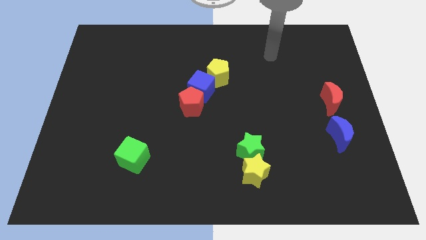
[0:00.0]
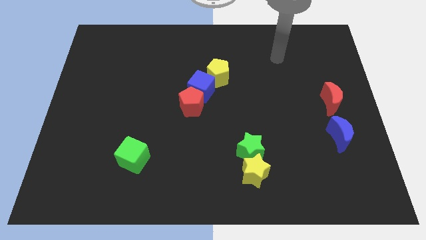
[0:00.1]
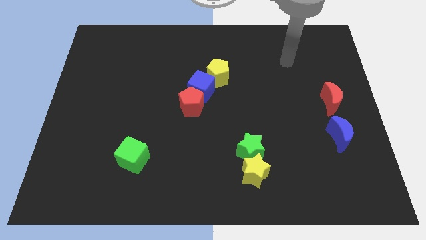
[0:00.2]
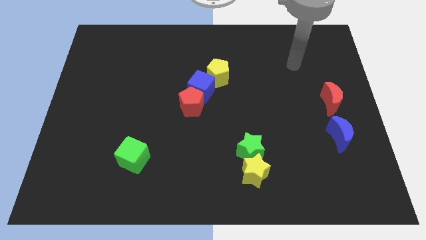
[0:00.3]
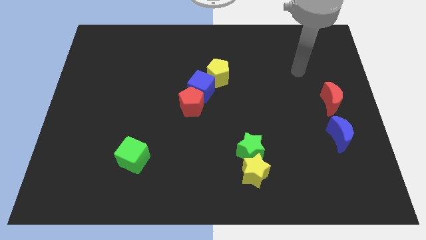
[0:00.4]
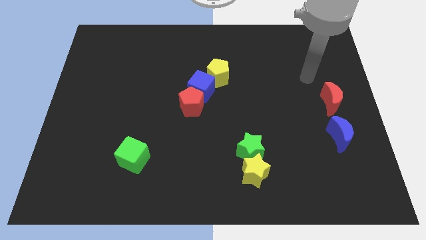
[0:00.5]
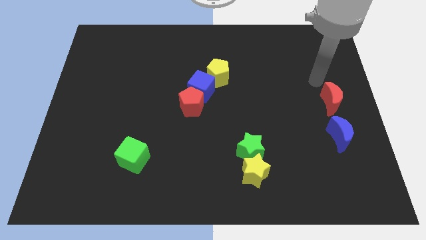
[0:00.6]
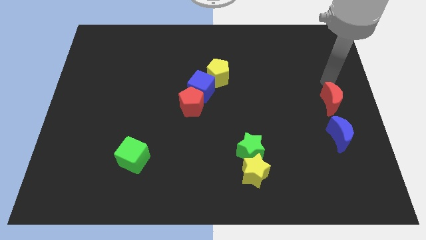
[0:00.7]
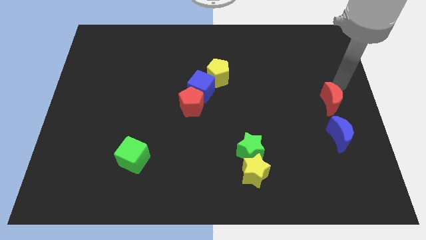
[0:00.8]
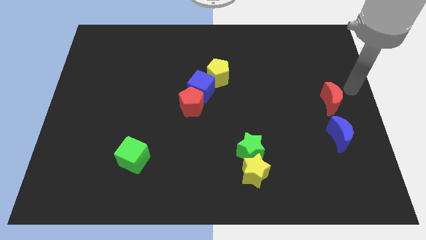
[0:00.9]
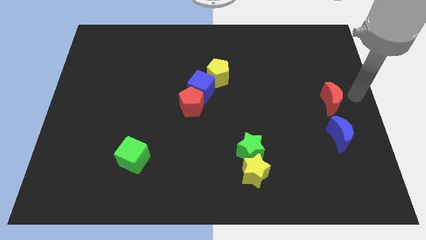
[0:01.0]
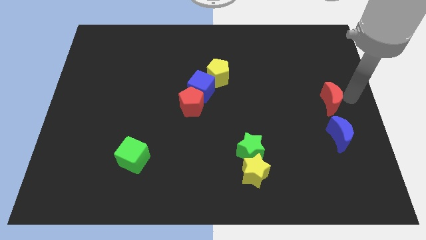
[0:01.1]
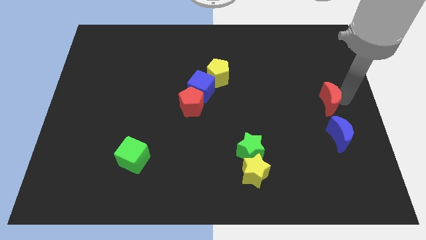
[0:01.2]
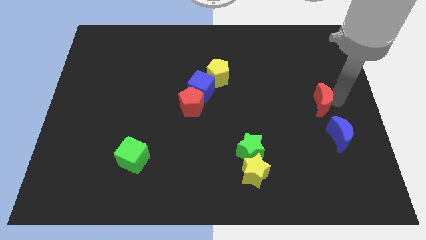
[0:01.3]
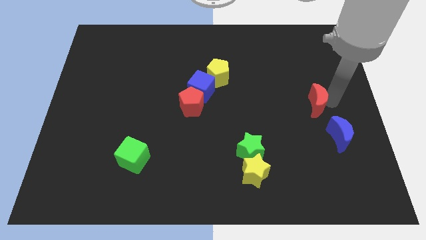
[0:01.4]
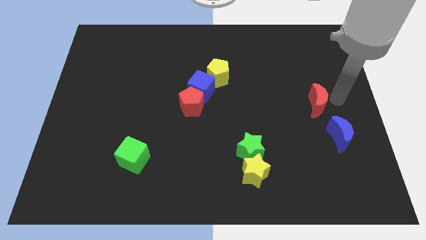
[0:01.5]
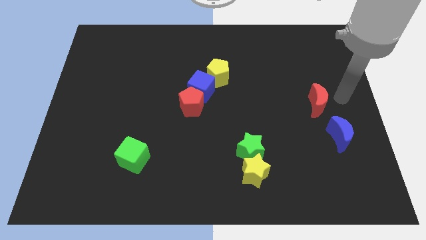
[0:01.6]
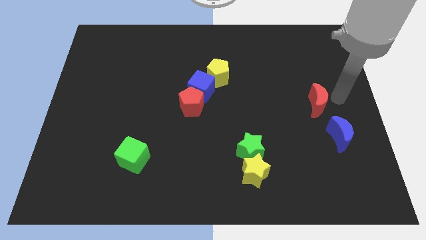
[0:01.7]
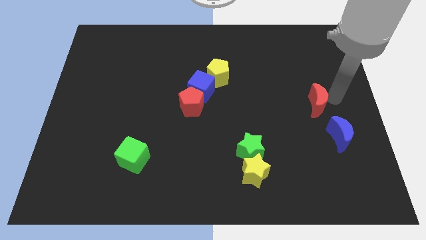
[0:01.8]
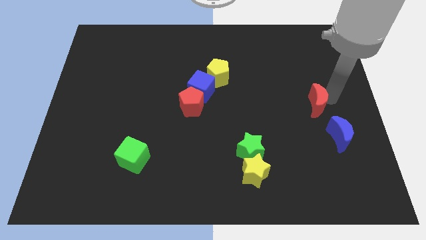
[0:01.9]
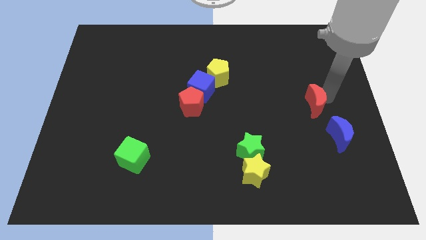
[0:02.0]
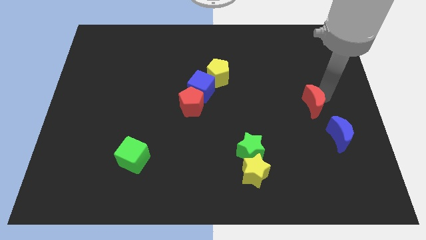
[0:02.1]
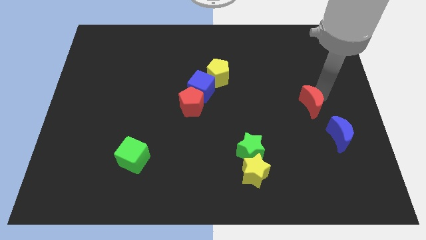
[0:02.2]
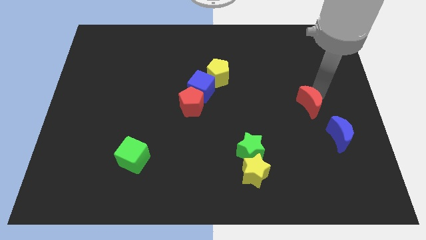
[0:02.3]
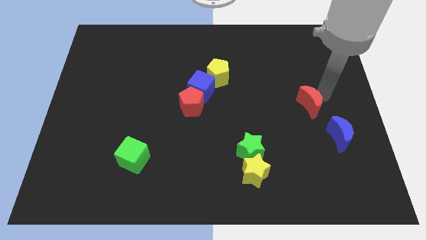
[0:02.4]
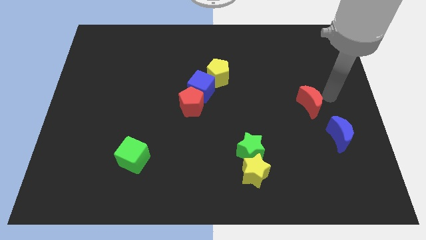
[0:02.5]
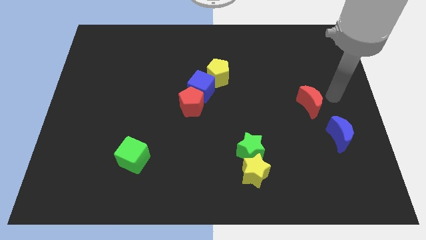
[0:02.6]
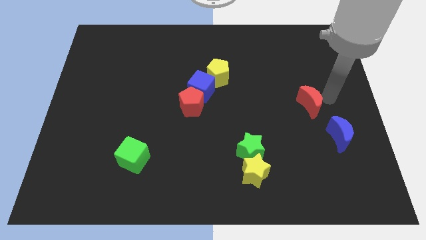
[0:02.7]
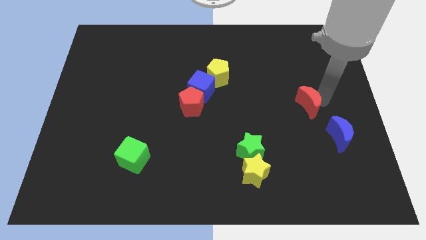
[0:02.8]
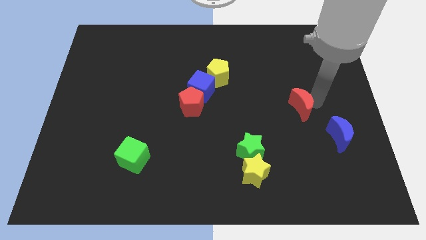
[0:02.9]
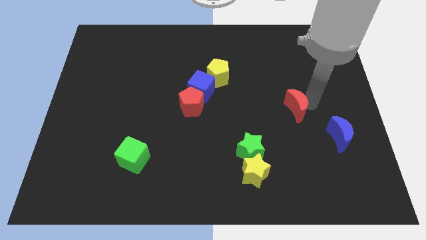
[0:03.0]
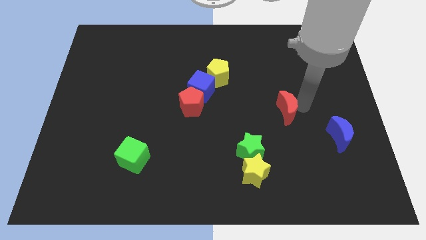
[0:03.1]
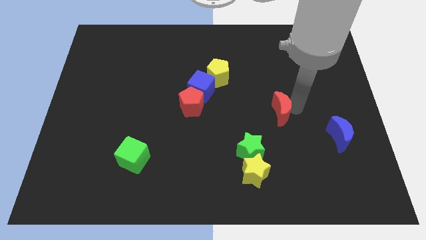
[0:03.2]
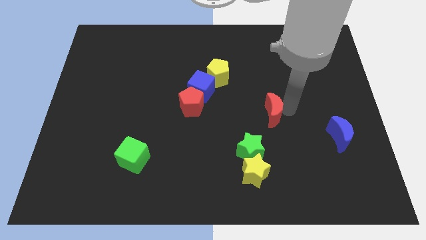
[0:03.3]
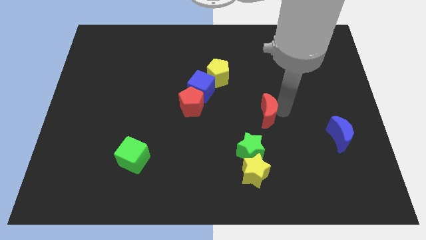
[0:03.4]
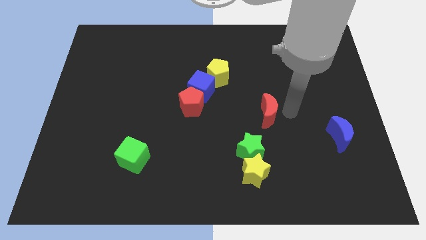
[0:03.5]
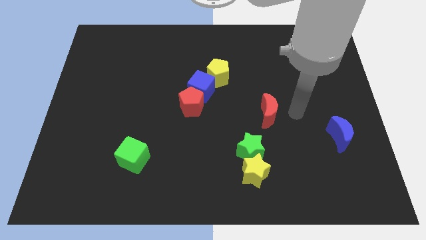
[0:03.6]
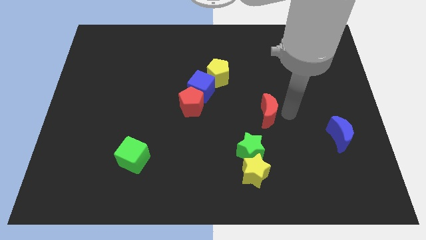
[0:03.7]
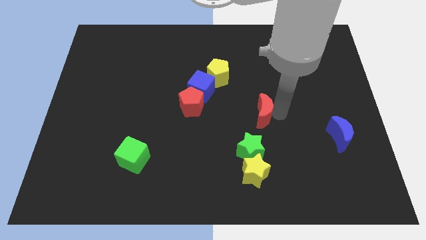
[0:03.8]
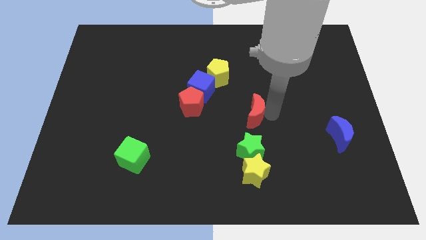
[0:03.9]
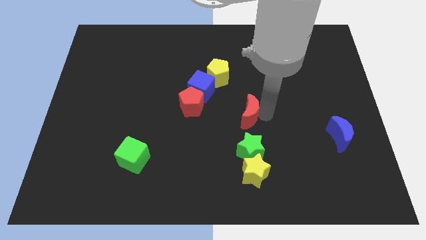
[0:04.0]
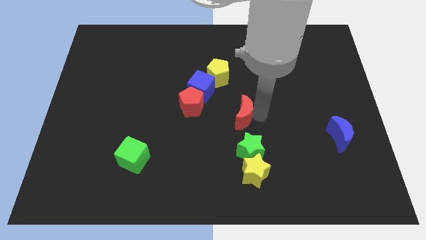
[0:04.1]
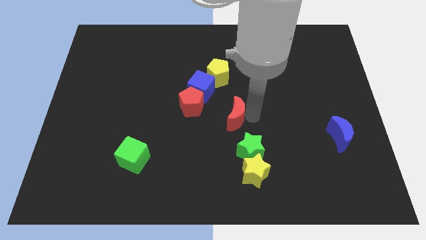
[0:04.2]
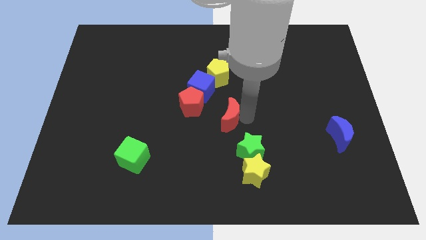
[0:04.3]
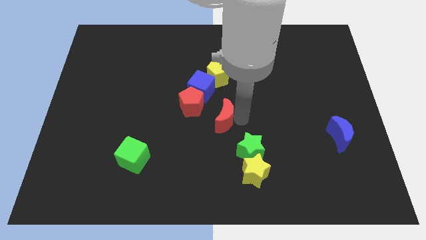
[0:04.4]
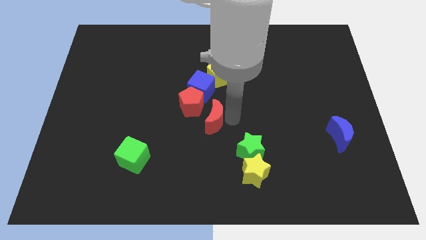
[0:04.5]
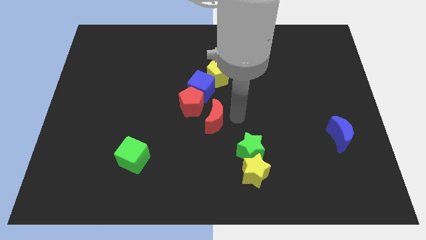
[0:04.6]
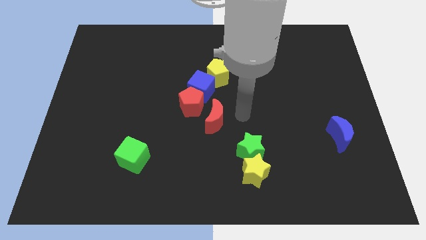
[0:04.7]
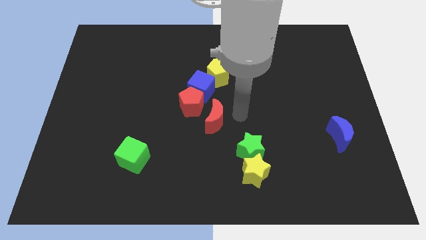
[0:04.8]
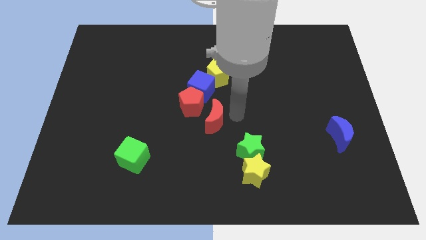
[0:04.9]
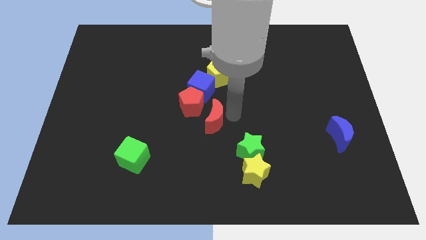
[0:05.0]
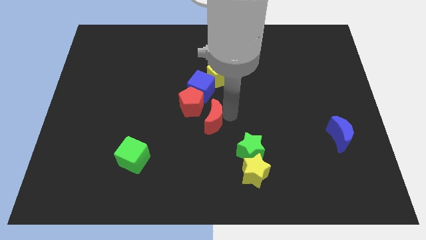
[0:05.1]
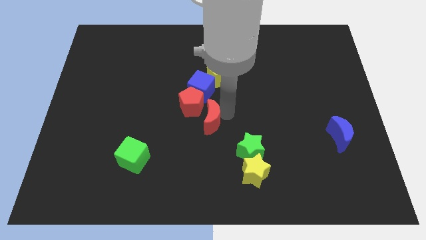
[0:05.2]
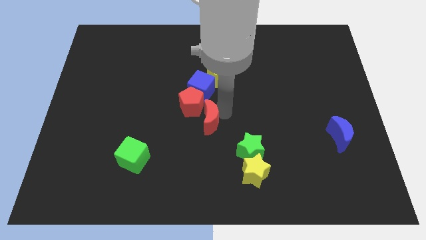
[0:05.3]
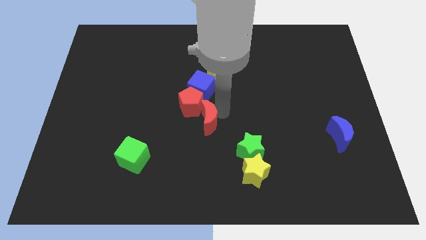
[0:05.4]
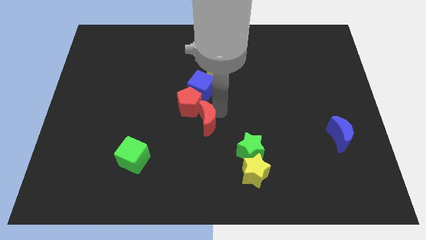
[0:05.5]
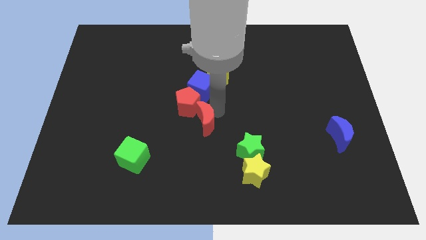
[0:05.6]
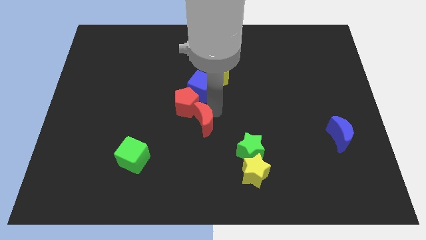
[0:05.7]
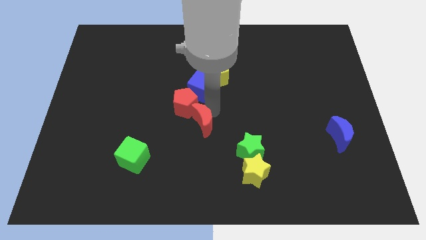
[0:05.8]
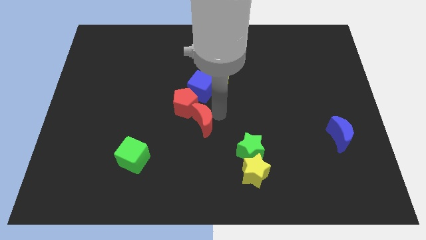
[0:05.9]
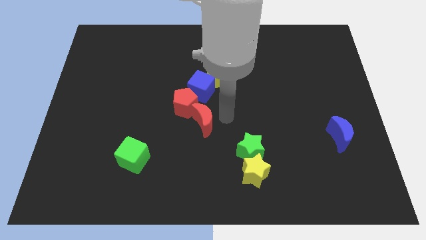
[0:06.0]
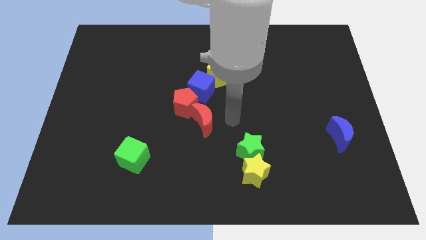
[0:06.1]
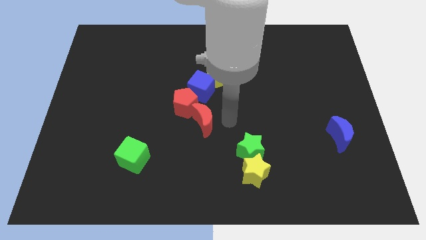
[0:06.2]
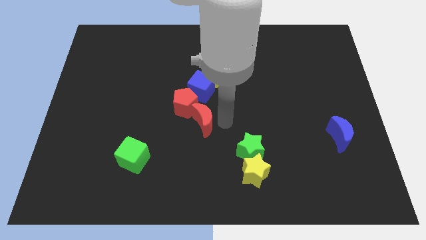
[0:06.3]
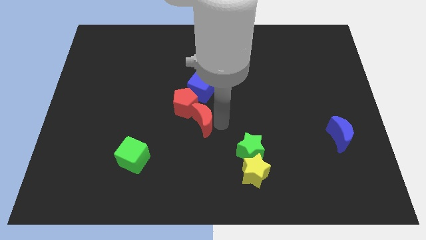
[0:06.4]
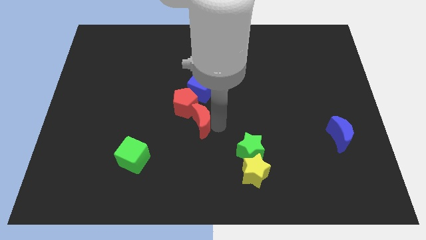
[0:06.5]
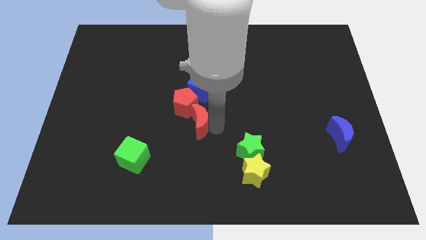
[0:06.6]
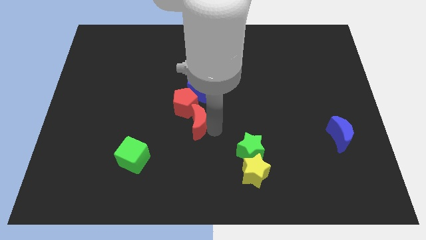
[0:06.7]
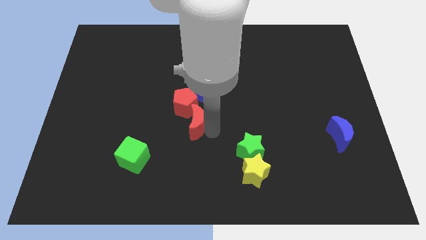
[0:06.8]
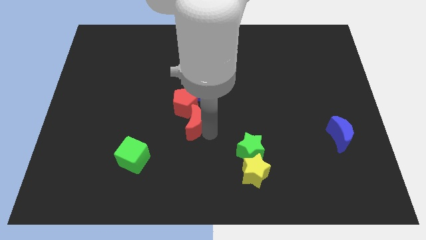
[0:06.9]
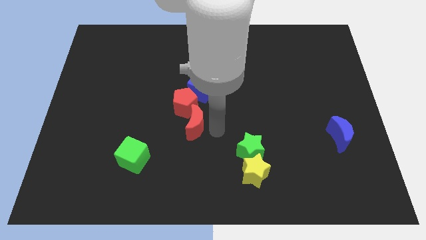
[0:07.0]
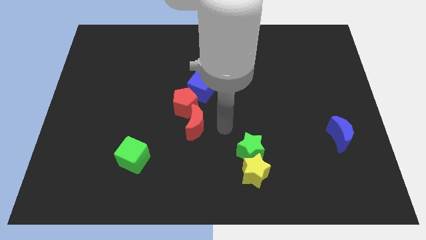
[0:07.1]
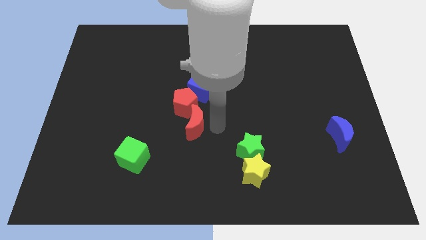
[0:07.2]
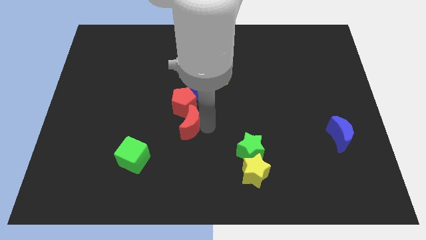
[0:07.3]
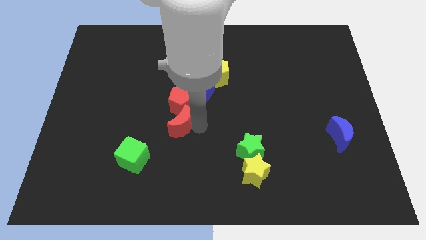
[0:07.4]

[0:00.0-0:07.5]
move the red moon diagonally down and to the left of the red pentagon
